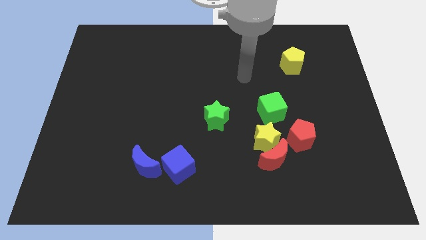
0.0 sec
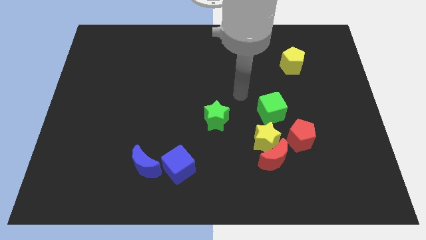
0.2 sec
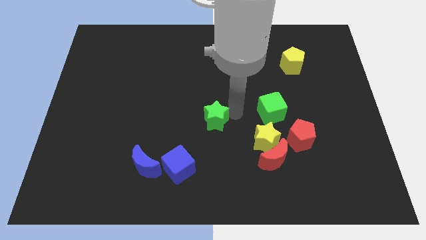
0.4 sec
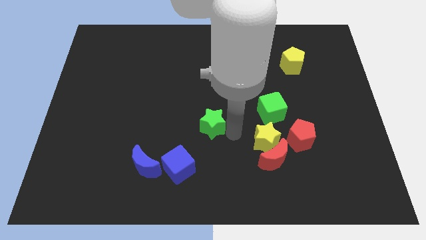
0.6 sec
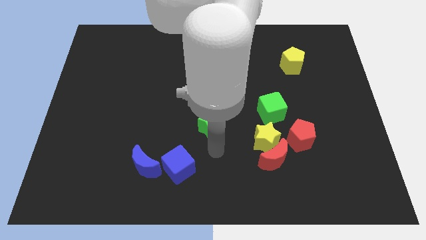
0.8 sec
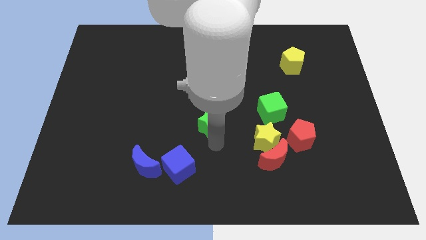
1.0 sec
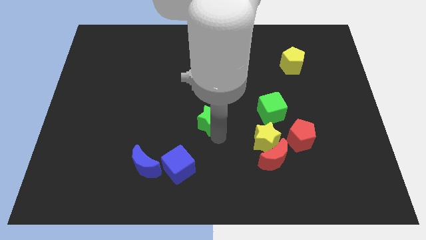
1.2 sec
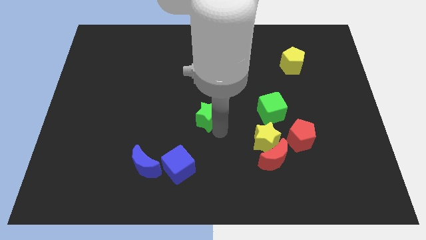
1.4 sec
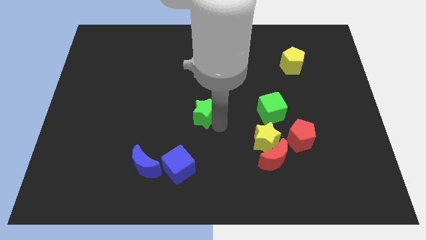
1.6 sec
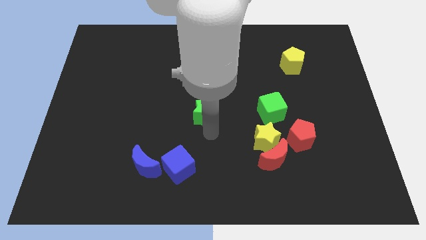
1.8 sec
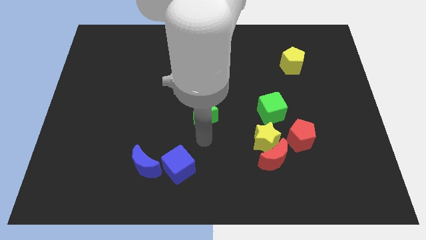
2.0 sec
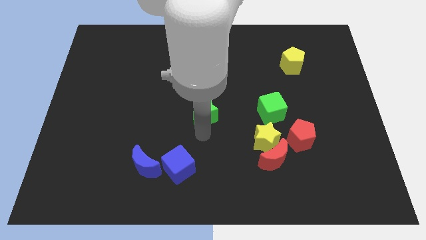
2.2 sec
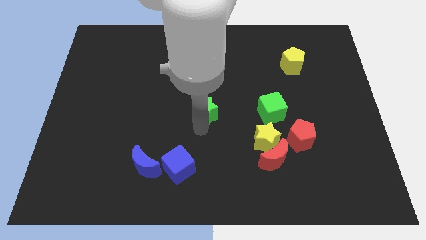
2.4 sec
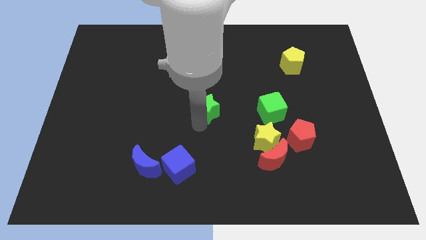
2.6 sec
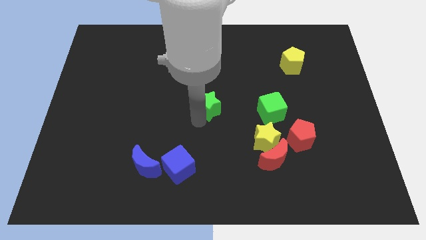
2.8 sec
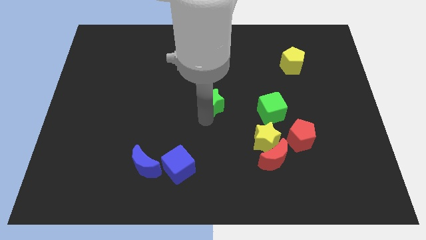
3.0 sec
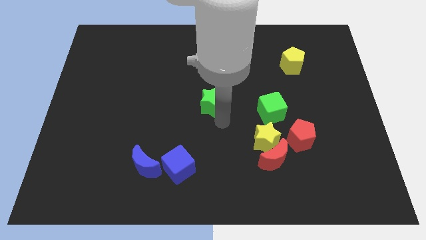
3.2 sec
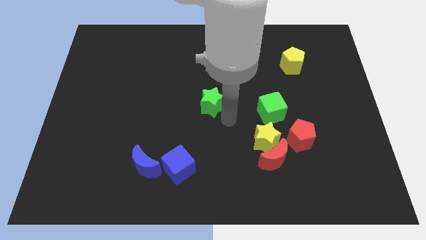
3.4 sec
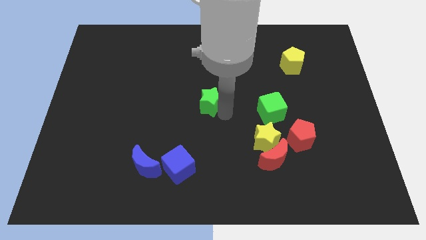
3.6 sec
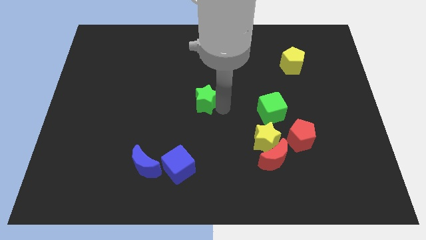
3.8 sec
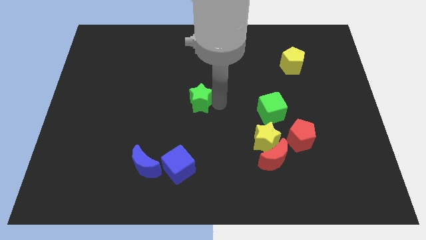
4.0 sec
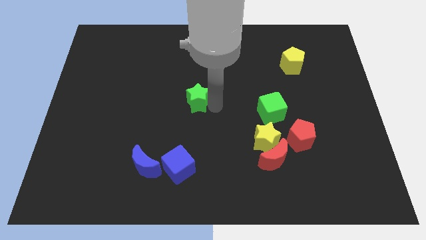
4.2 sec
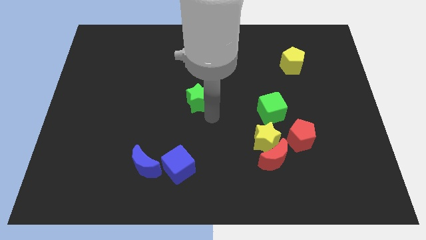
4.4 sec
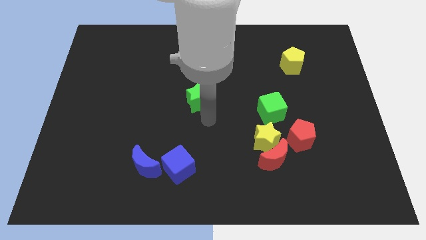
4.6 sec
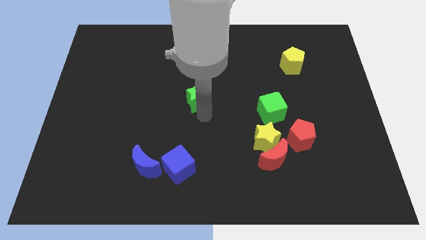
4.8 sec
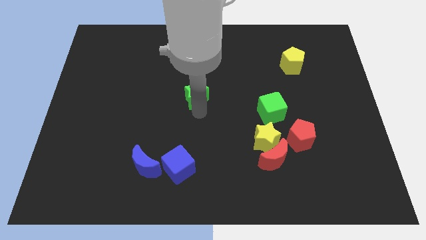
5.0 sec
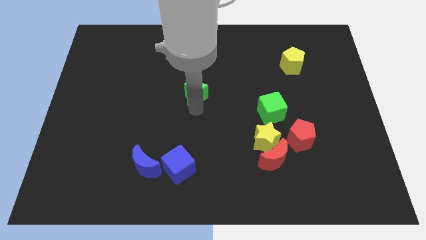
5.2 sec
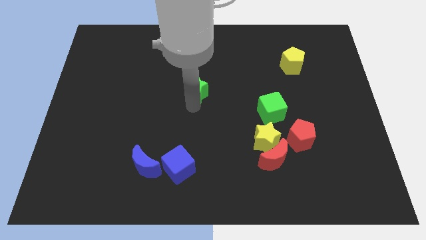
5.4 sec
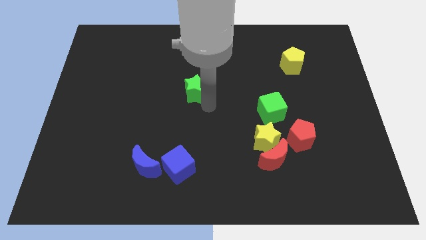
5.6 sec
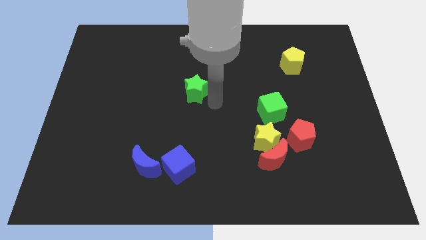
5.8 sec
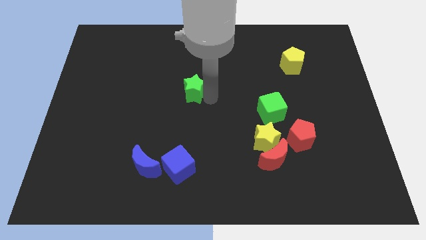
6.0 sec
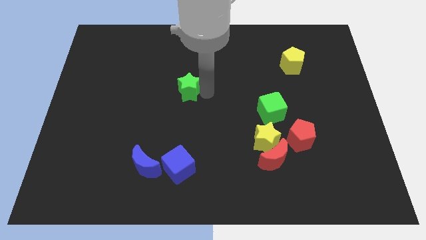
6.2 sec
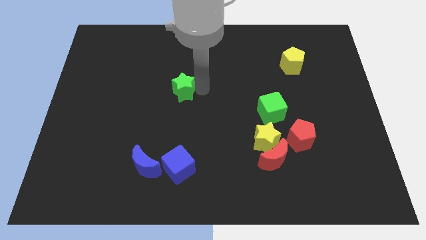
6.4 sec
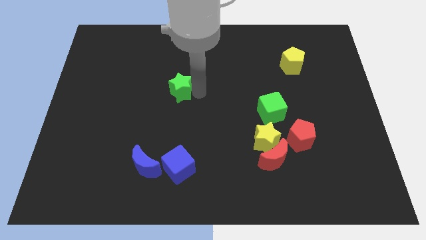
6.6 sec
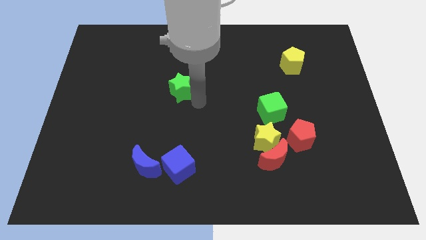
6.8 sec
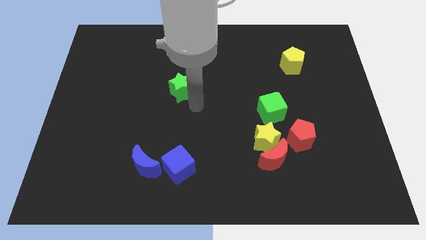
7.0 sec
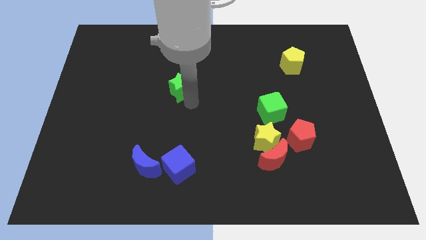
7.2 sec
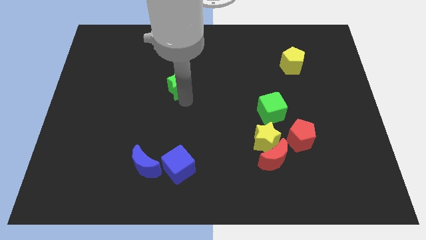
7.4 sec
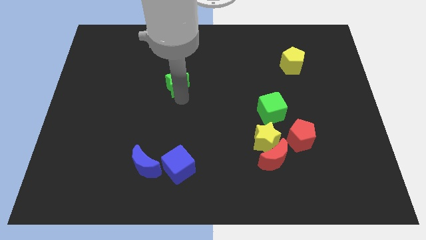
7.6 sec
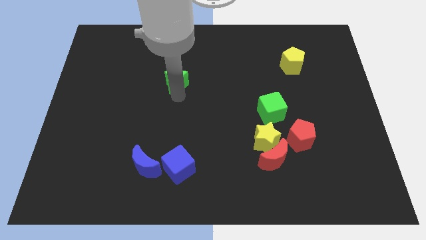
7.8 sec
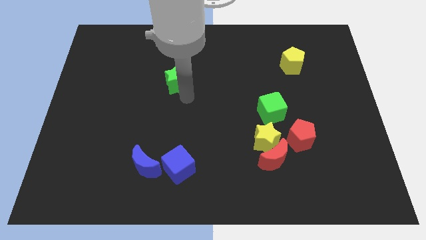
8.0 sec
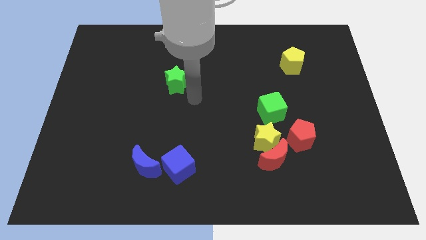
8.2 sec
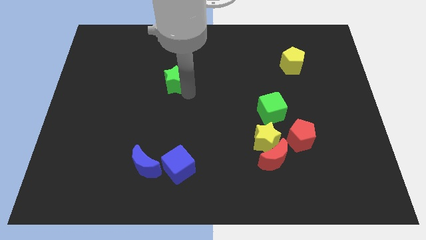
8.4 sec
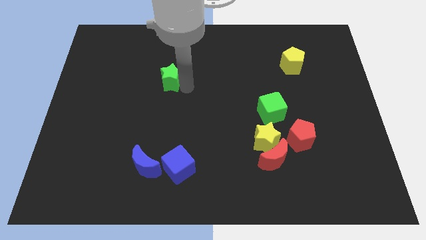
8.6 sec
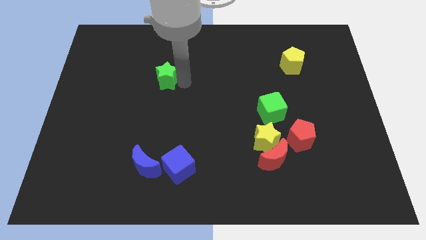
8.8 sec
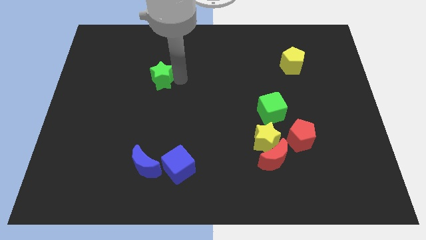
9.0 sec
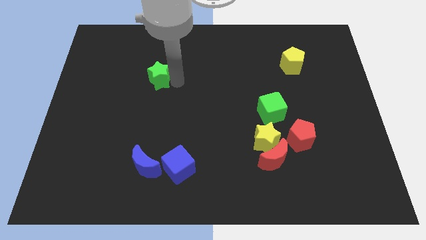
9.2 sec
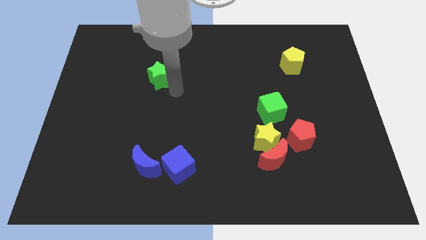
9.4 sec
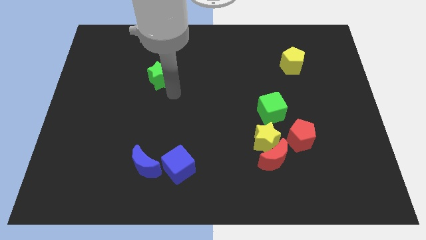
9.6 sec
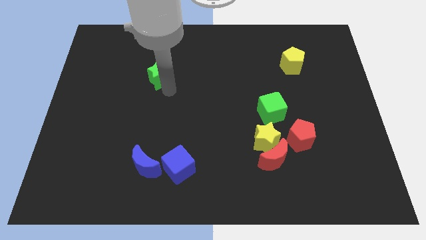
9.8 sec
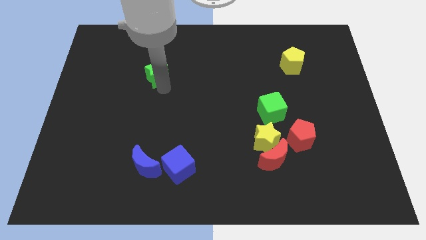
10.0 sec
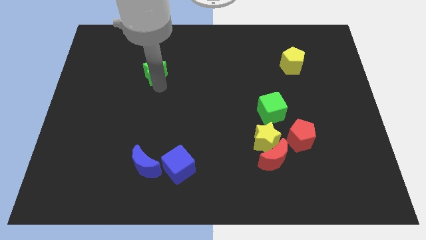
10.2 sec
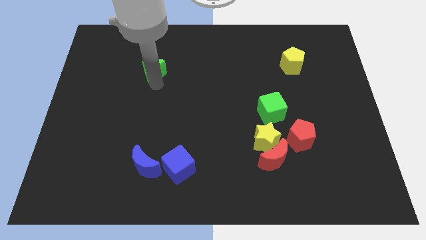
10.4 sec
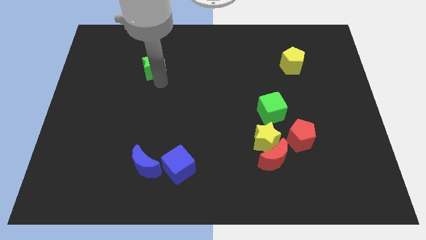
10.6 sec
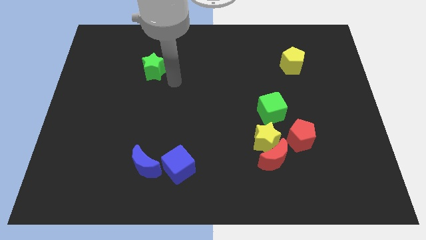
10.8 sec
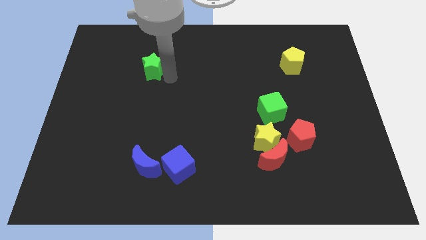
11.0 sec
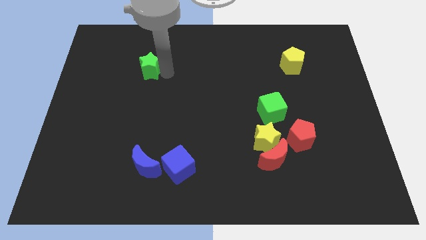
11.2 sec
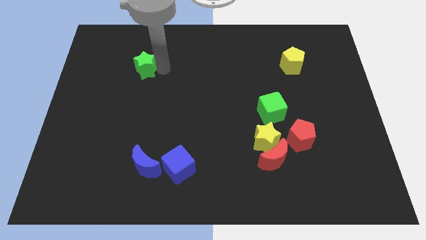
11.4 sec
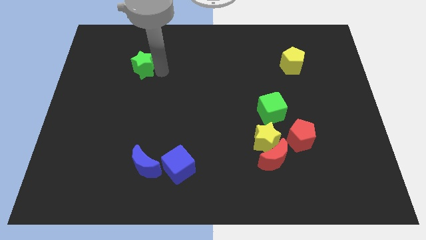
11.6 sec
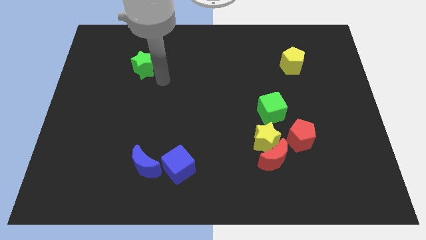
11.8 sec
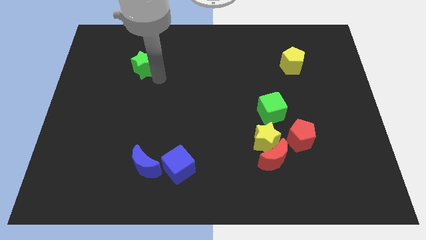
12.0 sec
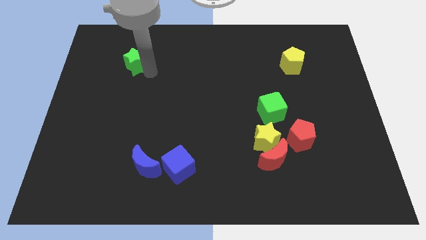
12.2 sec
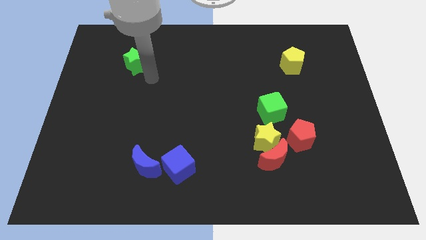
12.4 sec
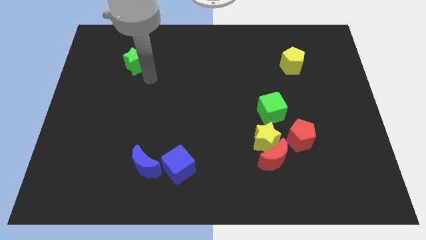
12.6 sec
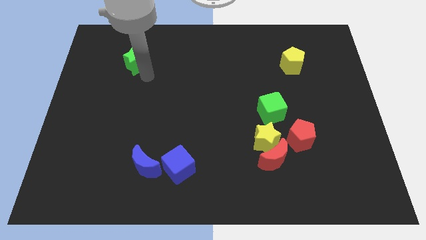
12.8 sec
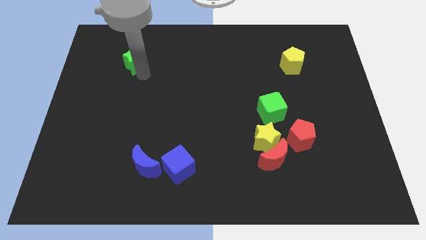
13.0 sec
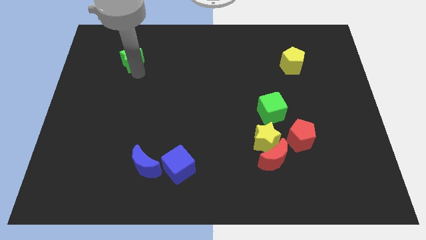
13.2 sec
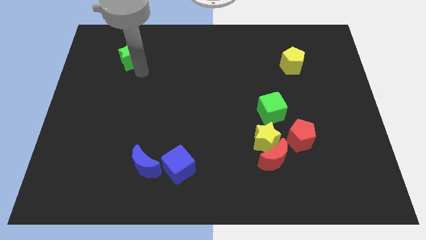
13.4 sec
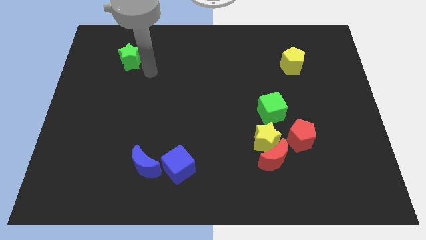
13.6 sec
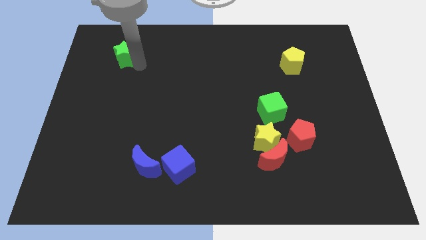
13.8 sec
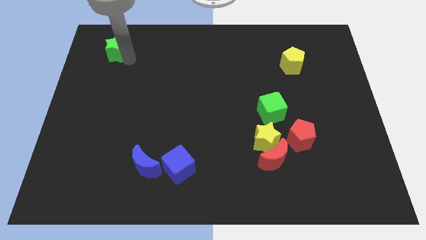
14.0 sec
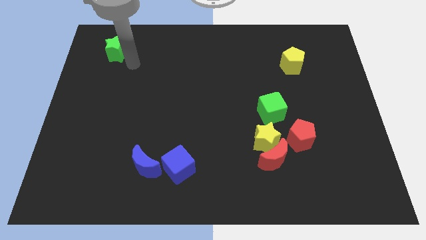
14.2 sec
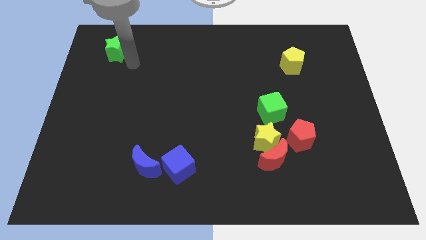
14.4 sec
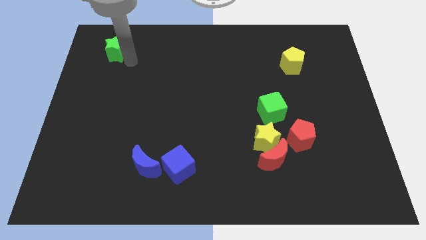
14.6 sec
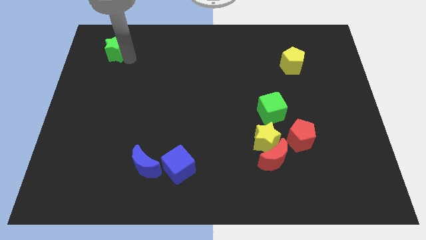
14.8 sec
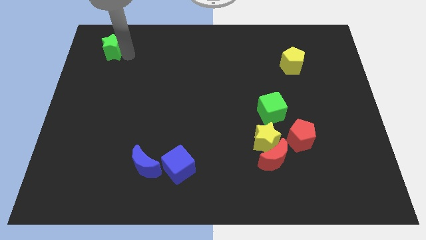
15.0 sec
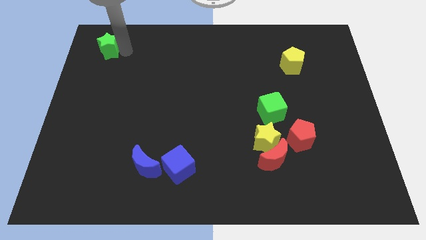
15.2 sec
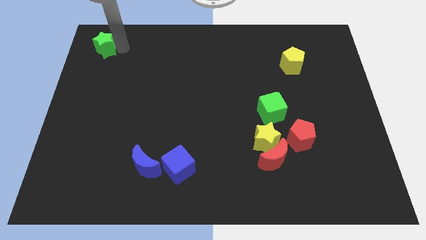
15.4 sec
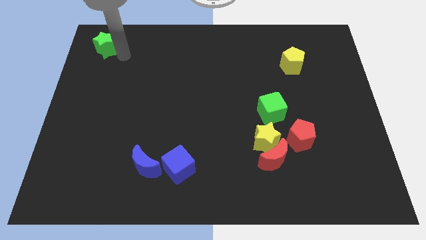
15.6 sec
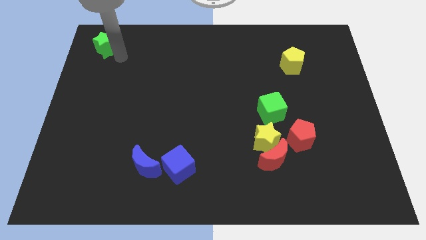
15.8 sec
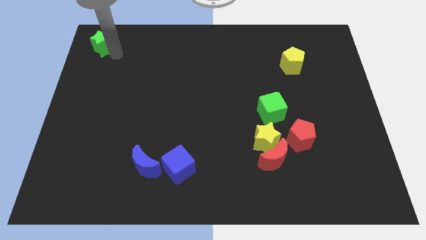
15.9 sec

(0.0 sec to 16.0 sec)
push the green star to the top left
